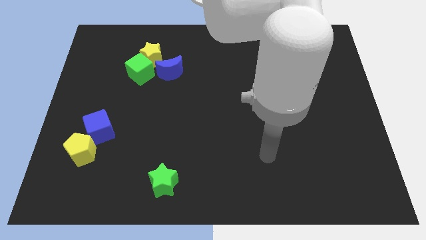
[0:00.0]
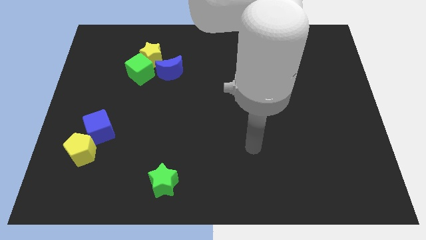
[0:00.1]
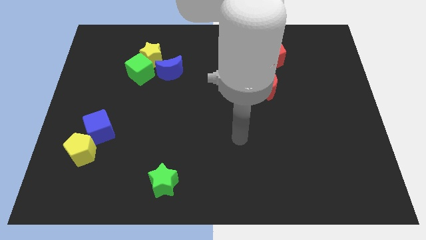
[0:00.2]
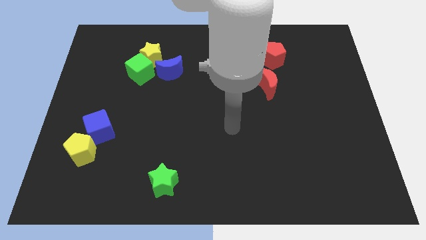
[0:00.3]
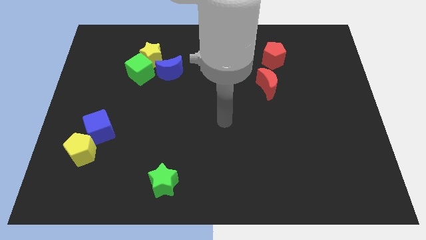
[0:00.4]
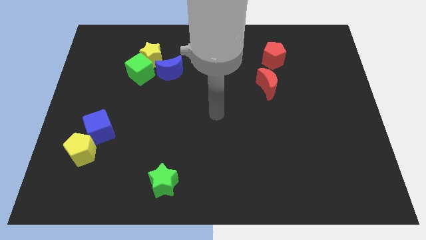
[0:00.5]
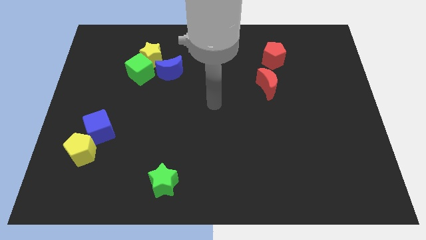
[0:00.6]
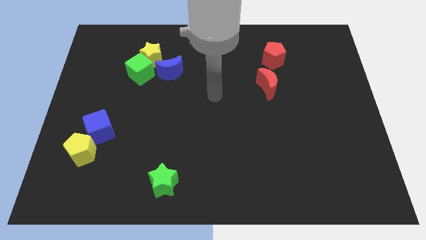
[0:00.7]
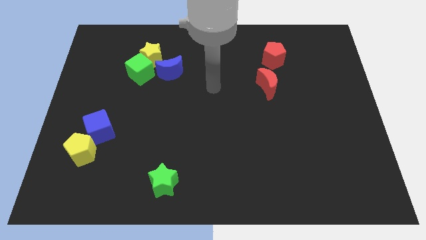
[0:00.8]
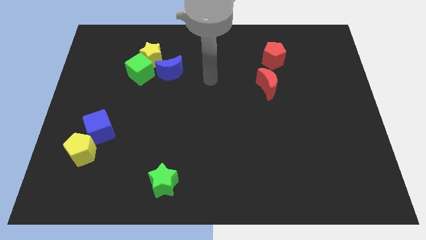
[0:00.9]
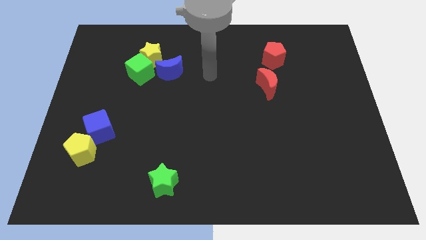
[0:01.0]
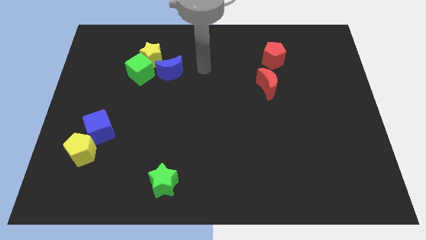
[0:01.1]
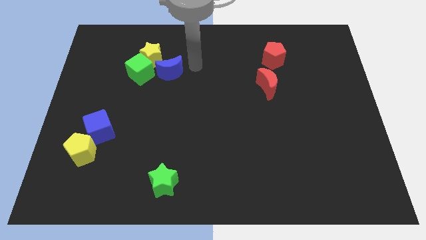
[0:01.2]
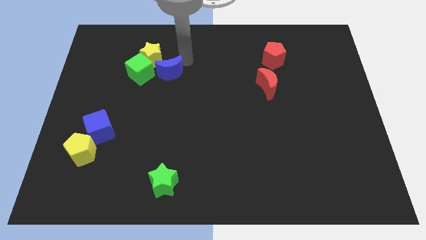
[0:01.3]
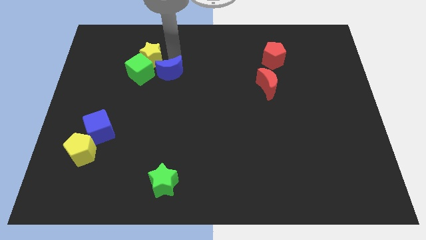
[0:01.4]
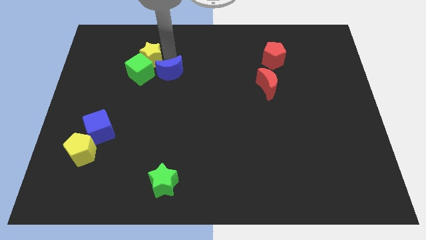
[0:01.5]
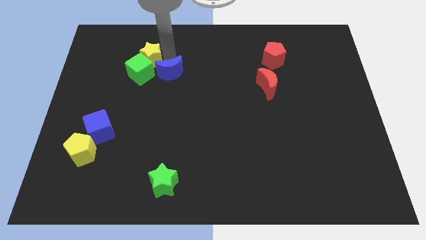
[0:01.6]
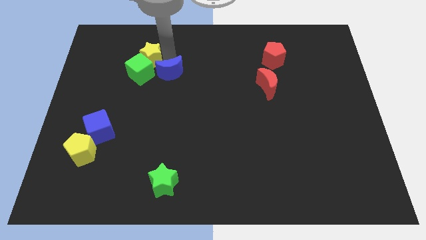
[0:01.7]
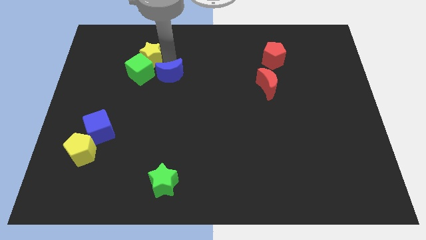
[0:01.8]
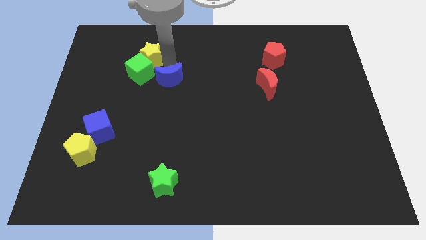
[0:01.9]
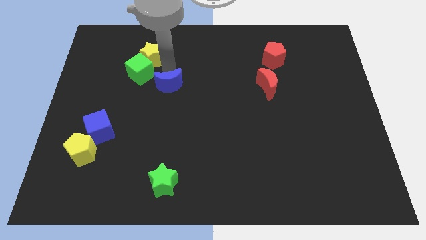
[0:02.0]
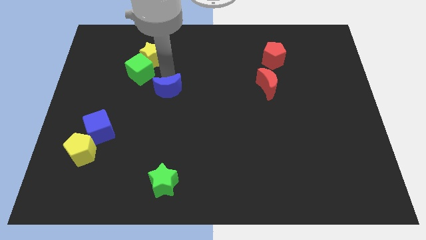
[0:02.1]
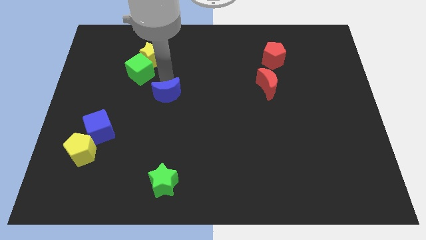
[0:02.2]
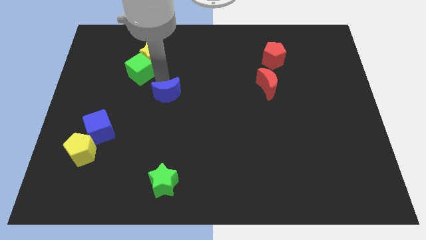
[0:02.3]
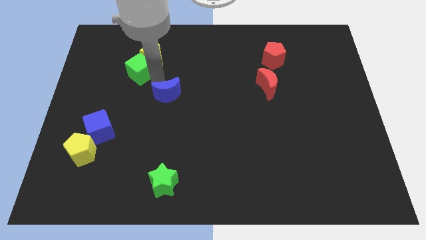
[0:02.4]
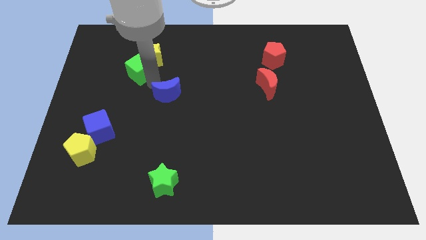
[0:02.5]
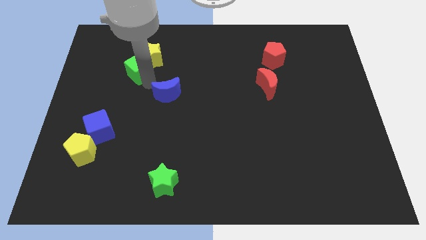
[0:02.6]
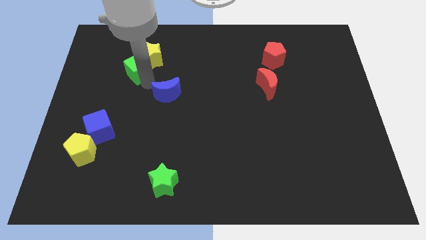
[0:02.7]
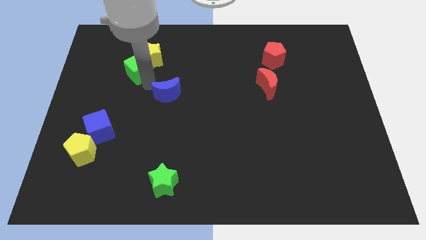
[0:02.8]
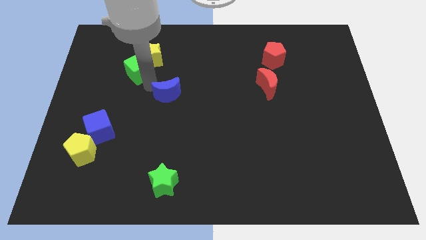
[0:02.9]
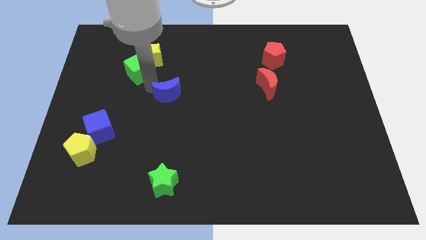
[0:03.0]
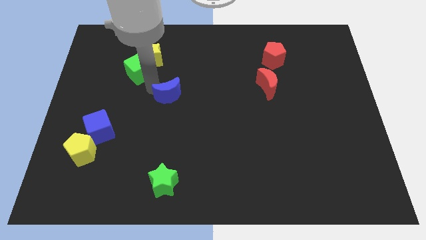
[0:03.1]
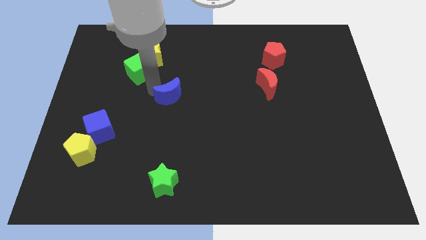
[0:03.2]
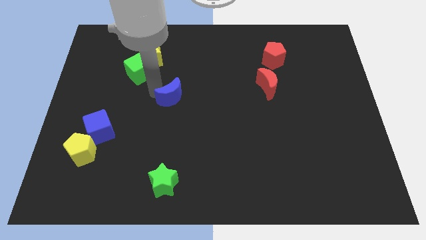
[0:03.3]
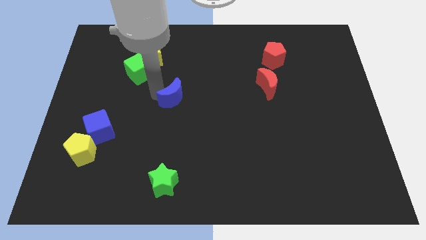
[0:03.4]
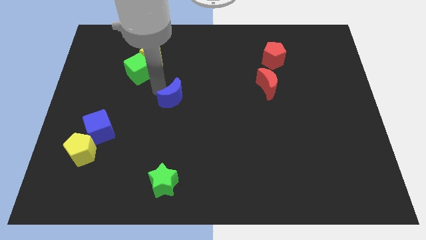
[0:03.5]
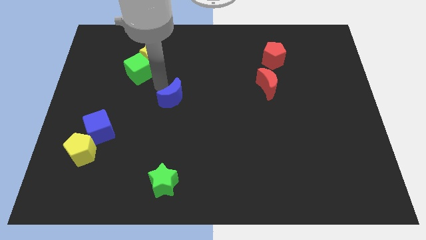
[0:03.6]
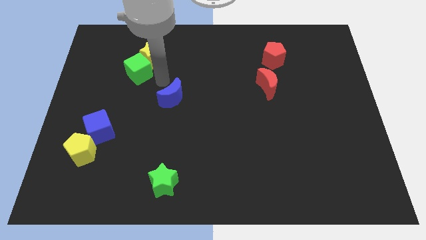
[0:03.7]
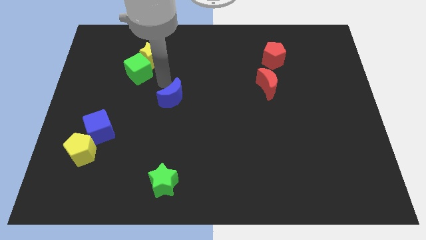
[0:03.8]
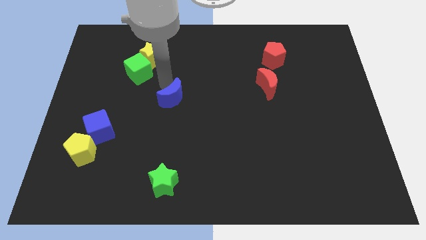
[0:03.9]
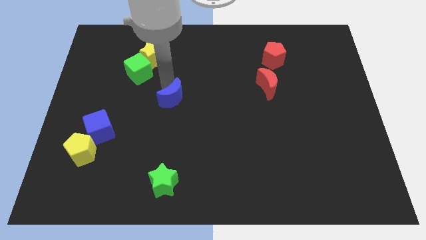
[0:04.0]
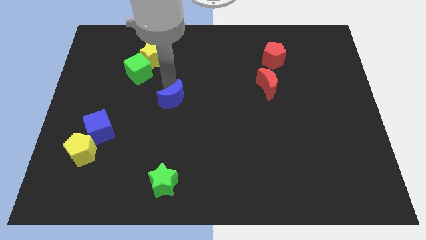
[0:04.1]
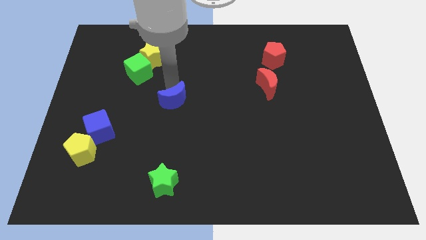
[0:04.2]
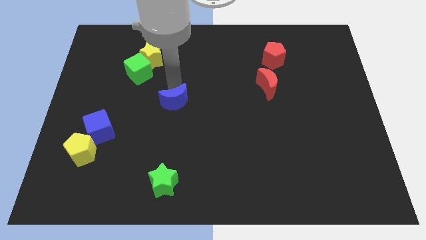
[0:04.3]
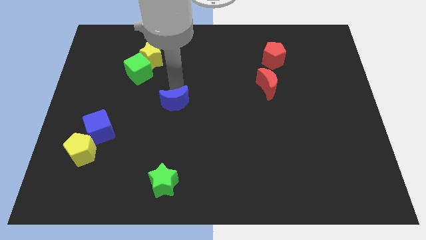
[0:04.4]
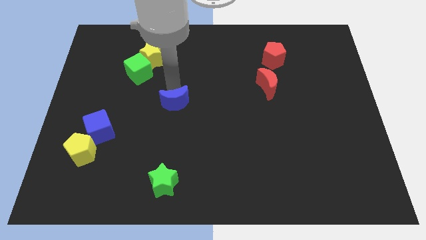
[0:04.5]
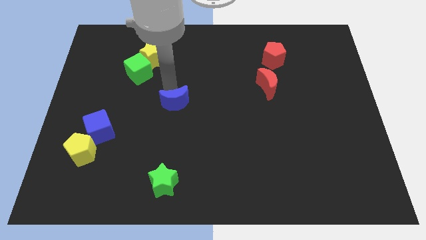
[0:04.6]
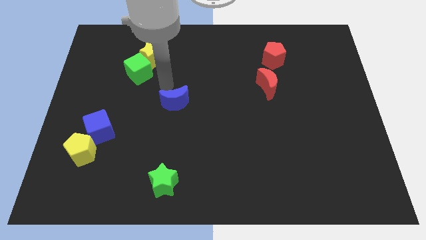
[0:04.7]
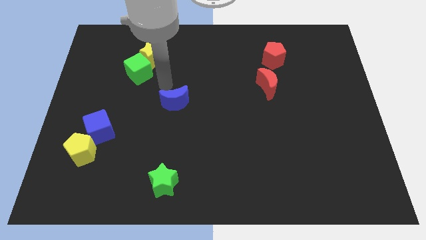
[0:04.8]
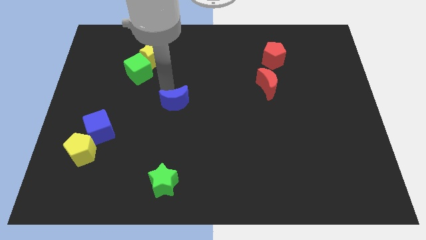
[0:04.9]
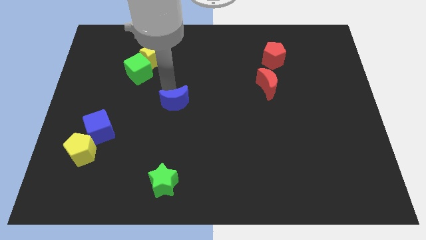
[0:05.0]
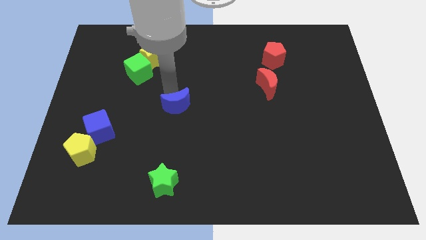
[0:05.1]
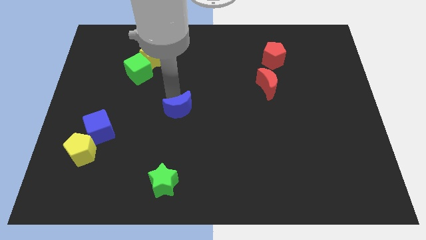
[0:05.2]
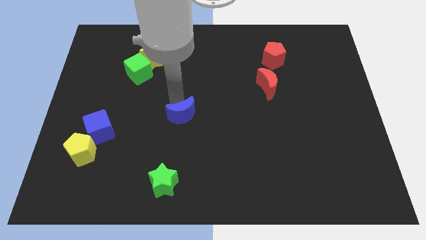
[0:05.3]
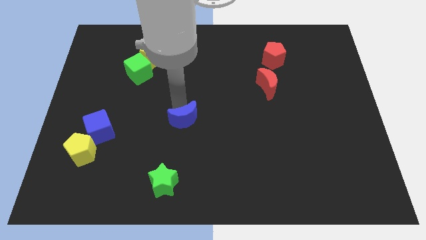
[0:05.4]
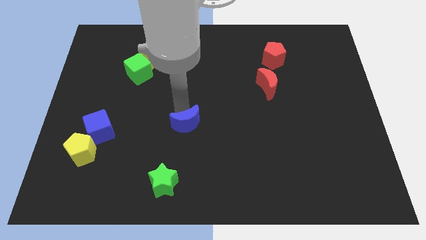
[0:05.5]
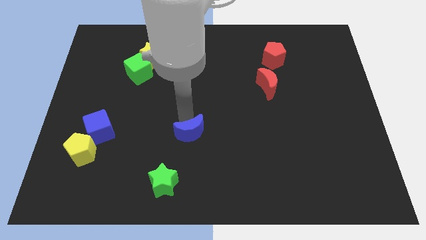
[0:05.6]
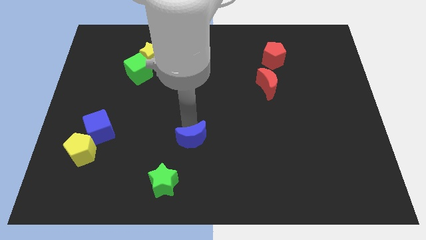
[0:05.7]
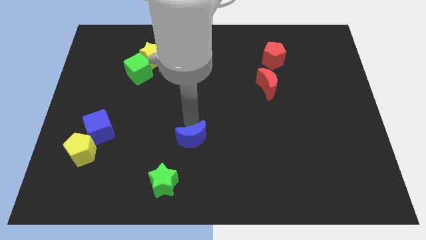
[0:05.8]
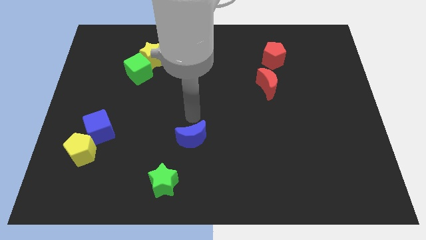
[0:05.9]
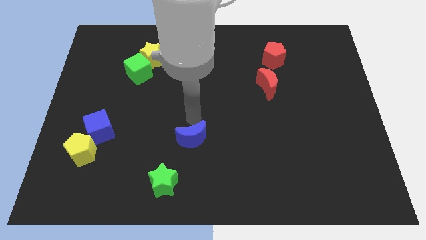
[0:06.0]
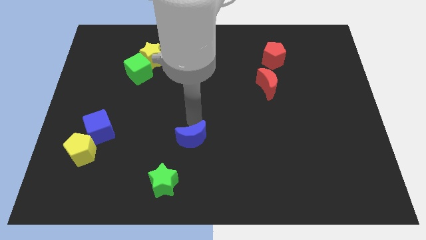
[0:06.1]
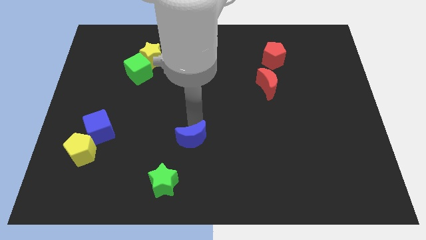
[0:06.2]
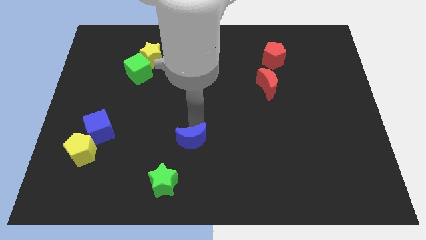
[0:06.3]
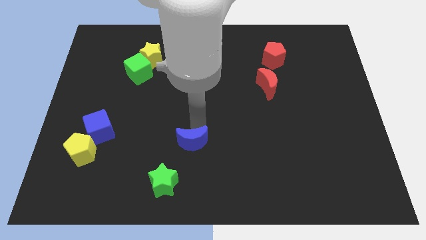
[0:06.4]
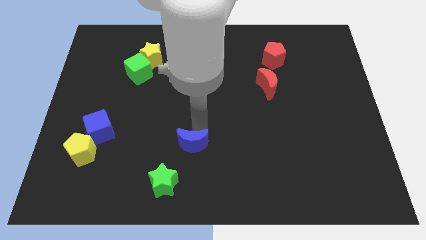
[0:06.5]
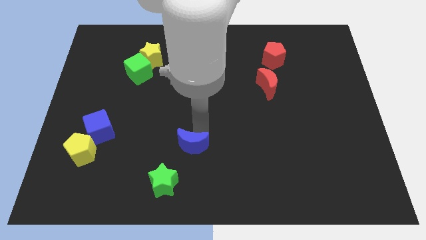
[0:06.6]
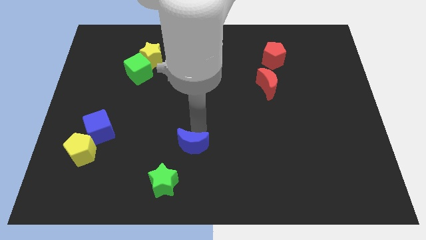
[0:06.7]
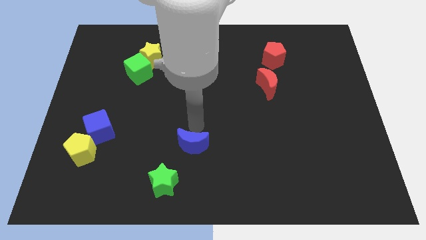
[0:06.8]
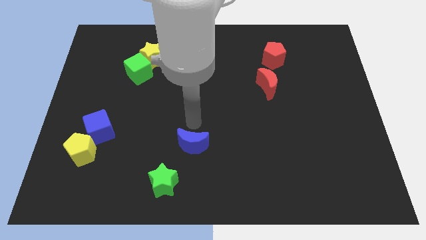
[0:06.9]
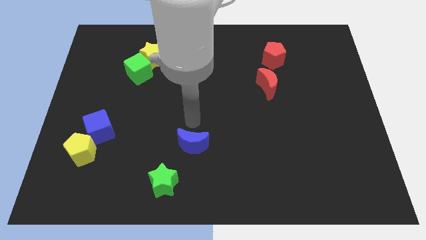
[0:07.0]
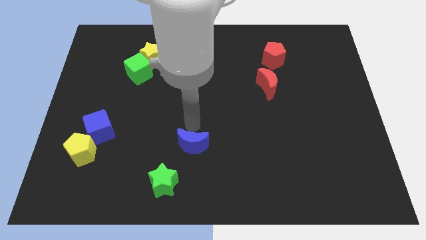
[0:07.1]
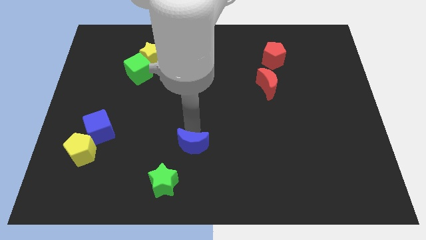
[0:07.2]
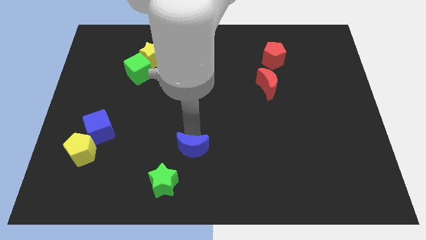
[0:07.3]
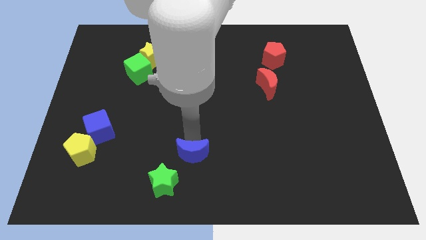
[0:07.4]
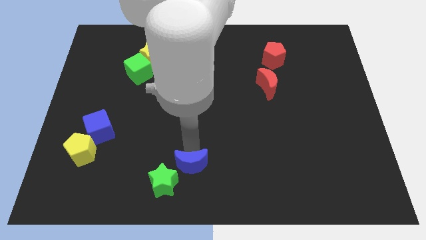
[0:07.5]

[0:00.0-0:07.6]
put the blue moon to the bottom side
